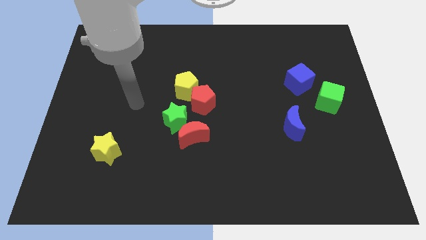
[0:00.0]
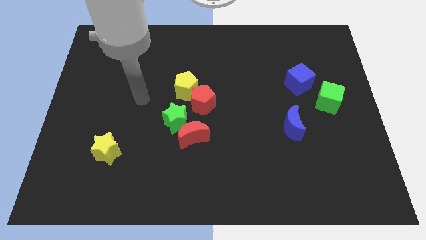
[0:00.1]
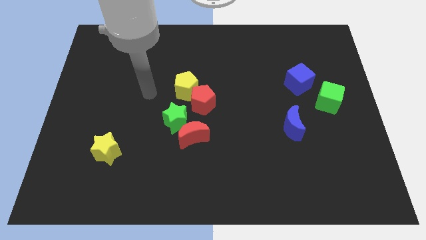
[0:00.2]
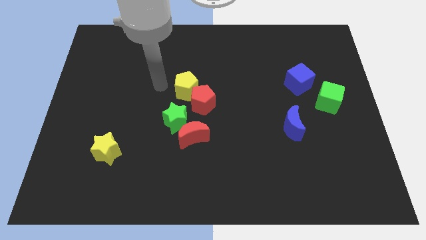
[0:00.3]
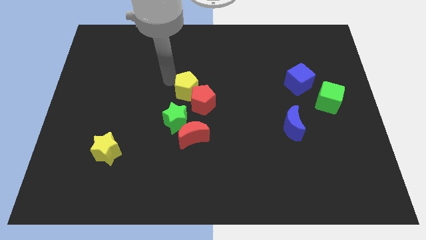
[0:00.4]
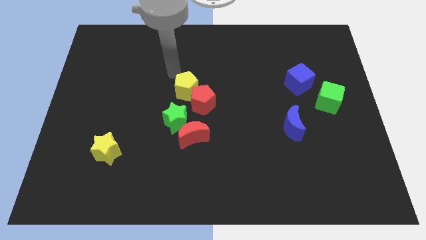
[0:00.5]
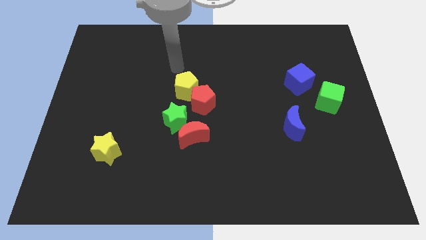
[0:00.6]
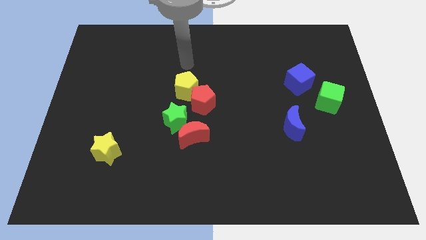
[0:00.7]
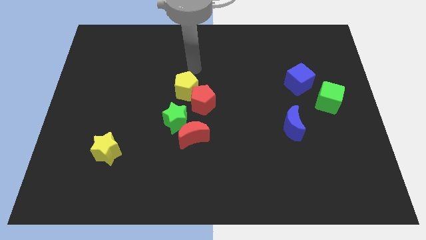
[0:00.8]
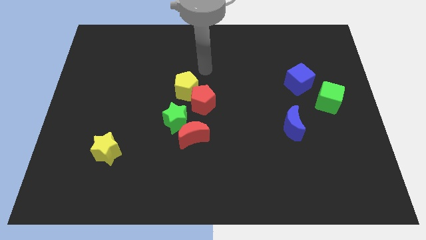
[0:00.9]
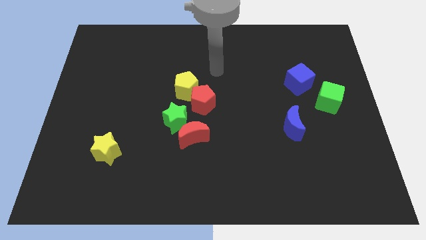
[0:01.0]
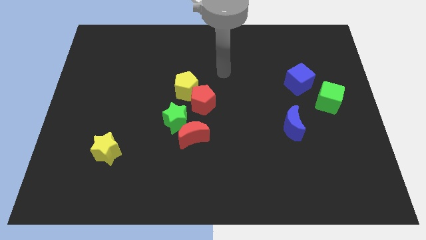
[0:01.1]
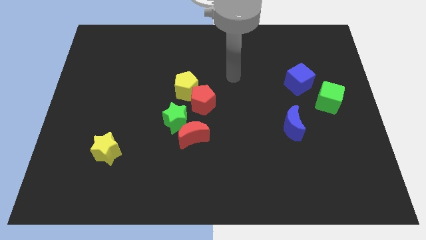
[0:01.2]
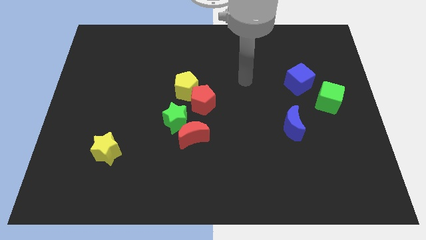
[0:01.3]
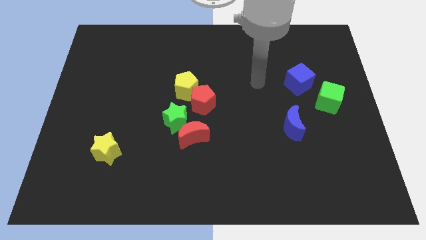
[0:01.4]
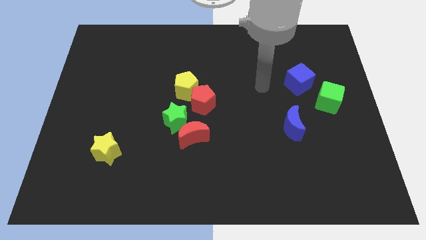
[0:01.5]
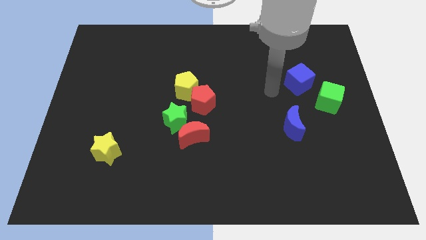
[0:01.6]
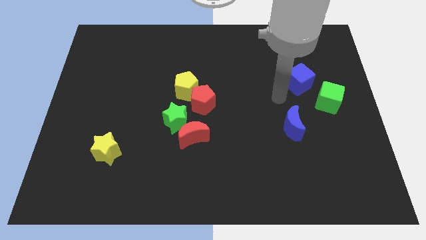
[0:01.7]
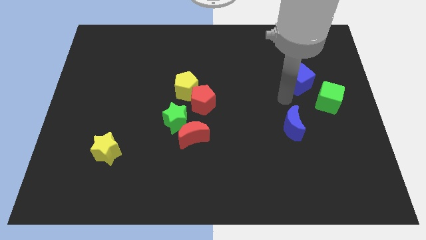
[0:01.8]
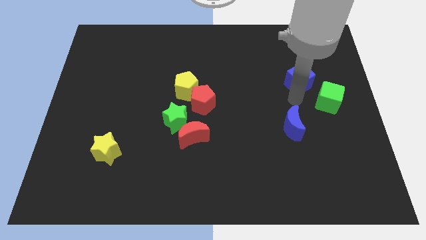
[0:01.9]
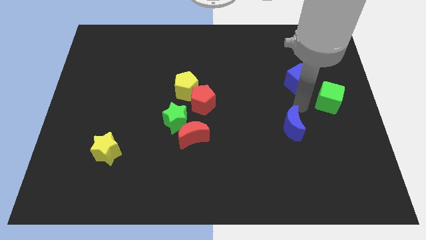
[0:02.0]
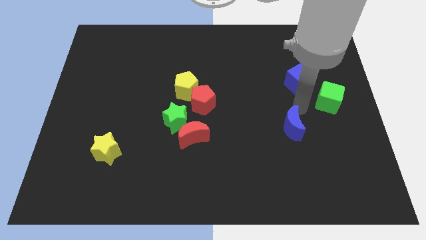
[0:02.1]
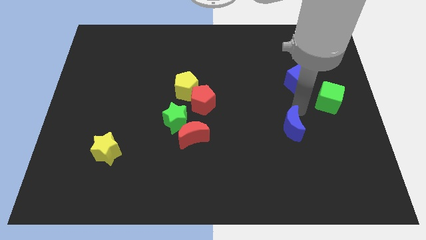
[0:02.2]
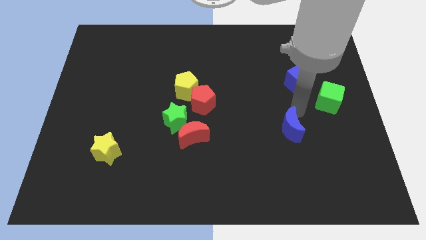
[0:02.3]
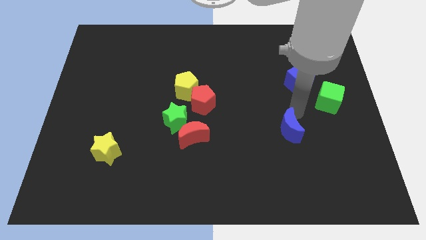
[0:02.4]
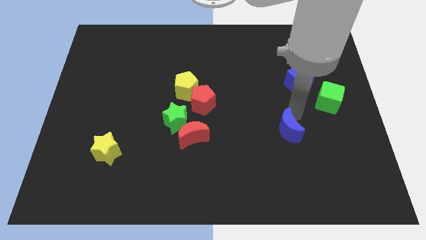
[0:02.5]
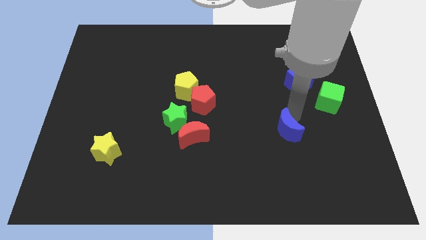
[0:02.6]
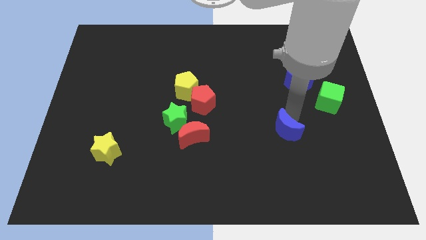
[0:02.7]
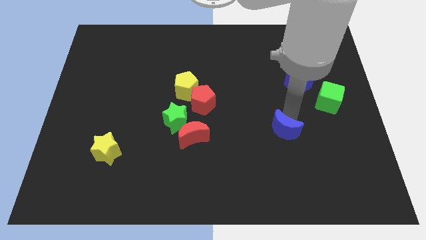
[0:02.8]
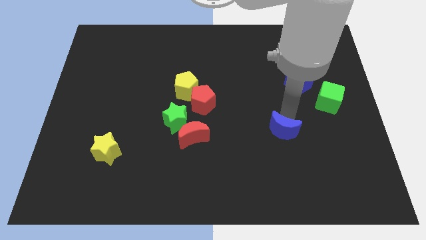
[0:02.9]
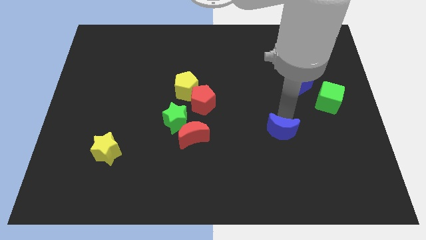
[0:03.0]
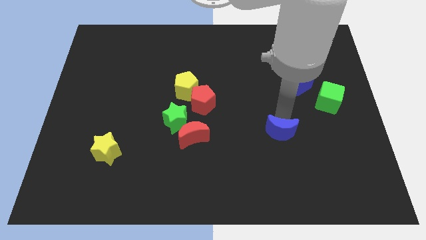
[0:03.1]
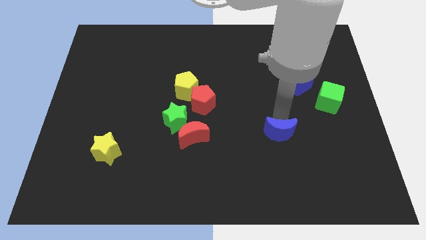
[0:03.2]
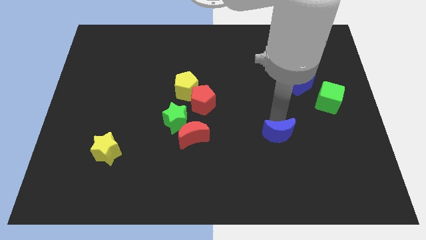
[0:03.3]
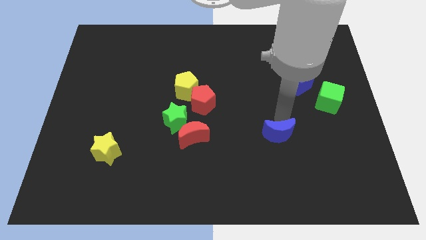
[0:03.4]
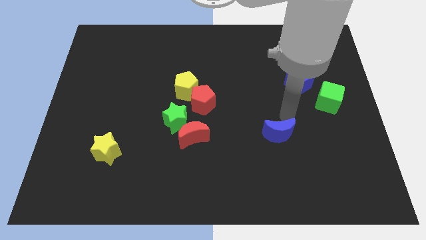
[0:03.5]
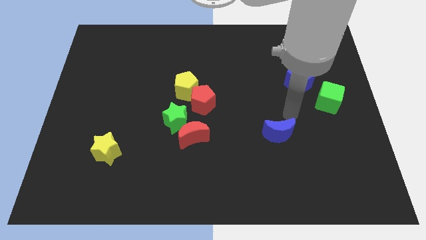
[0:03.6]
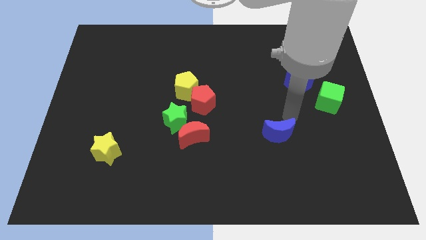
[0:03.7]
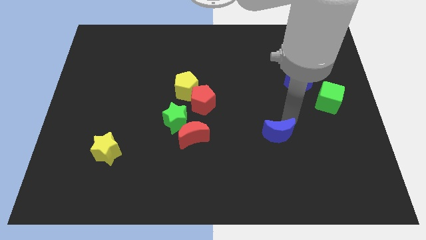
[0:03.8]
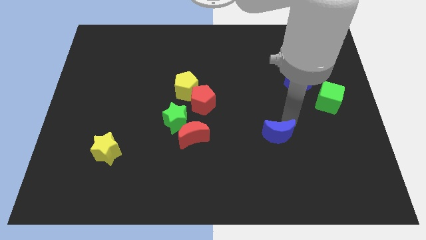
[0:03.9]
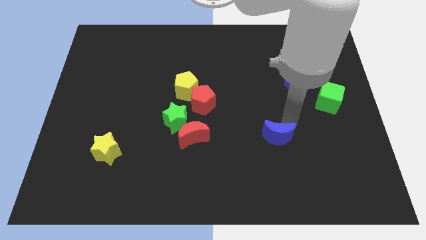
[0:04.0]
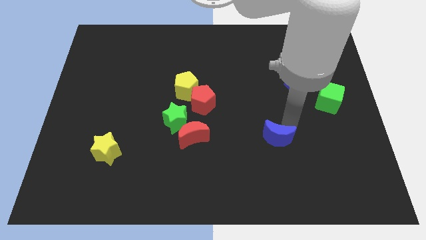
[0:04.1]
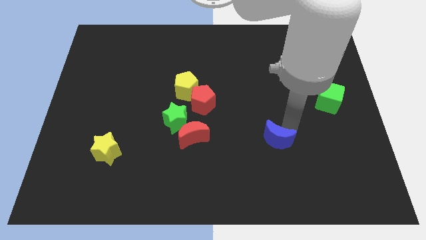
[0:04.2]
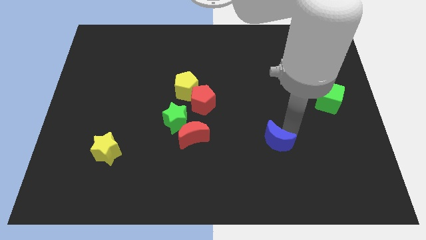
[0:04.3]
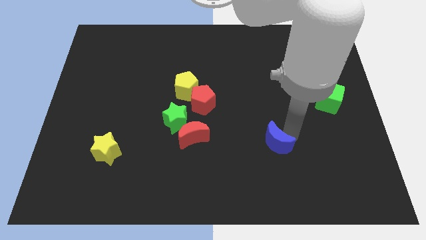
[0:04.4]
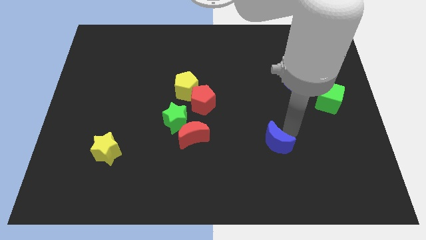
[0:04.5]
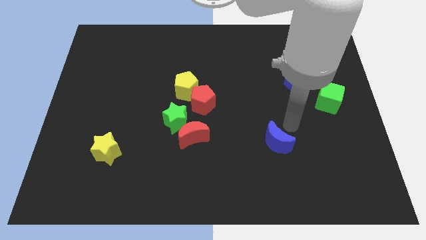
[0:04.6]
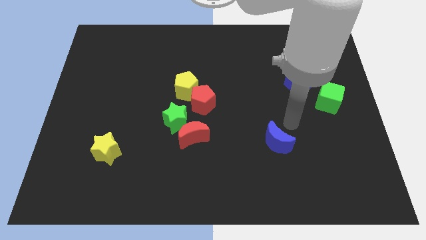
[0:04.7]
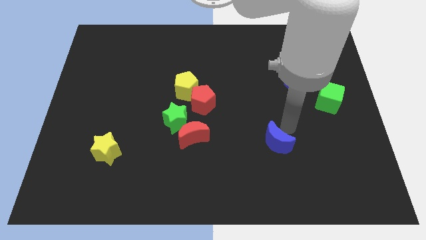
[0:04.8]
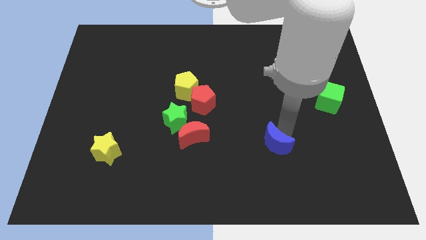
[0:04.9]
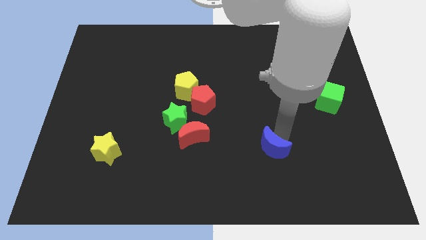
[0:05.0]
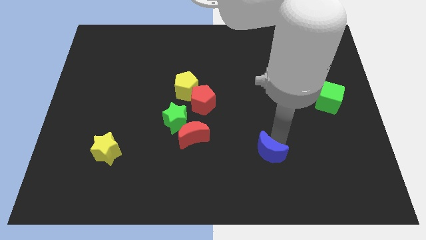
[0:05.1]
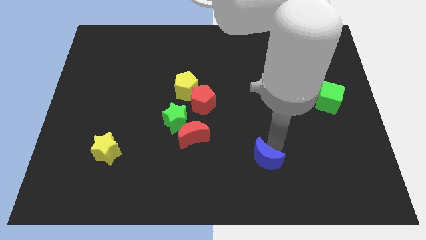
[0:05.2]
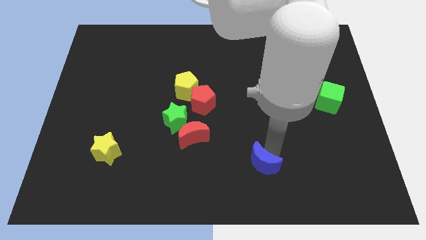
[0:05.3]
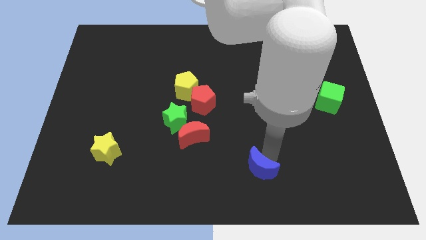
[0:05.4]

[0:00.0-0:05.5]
push the blue moon to the bottom

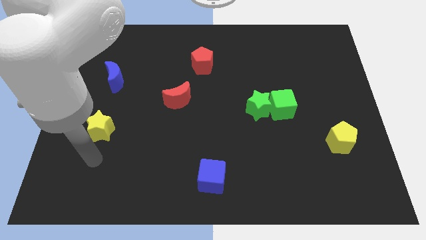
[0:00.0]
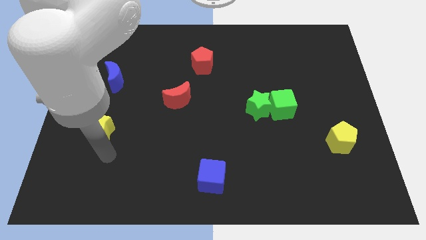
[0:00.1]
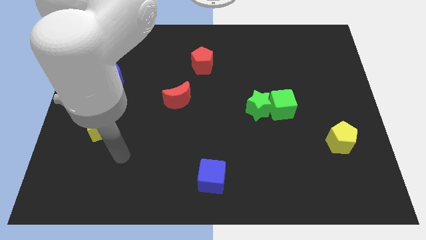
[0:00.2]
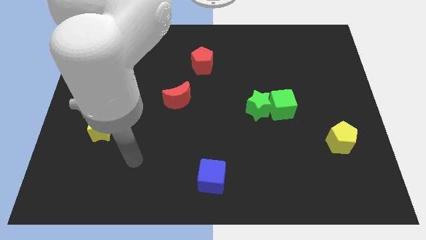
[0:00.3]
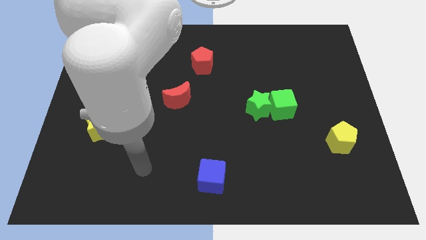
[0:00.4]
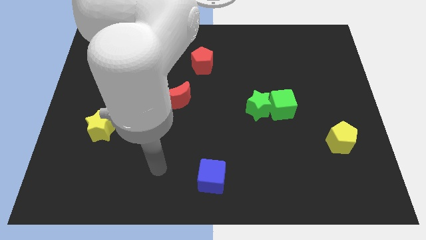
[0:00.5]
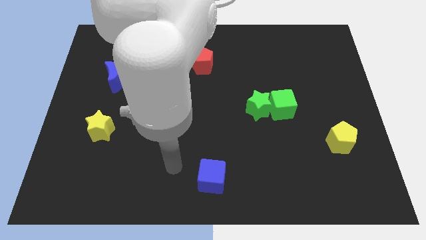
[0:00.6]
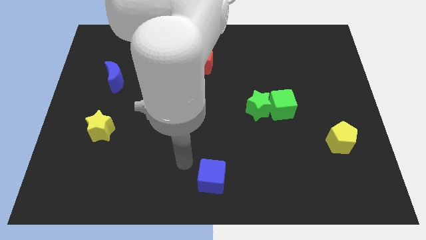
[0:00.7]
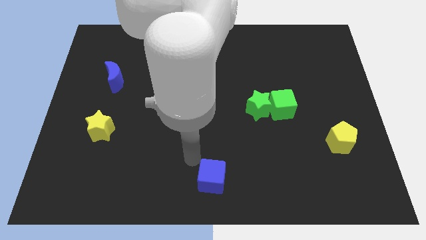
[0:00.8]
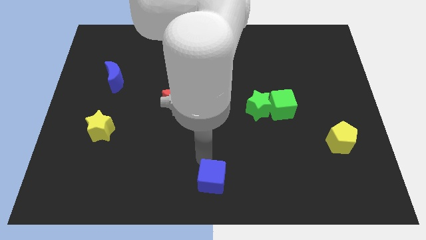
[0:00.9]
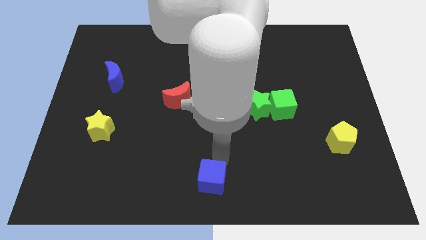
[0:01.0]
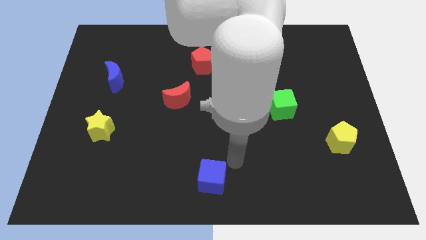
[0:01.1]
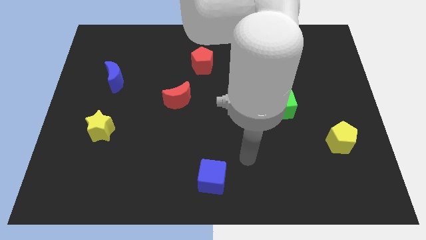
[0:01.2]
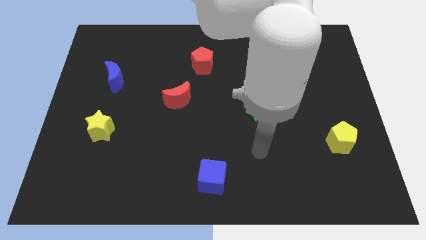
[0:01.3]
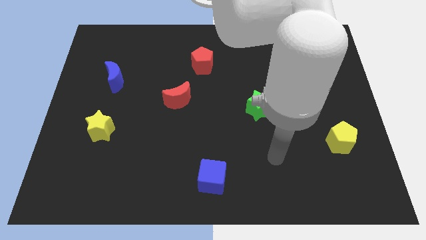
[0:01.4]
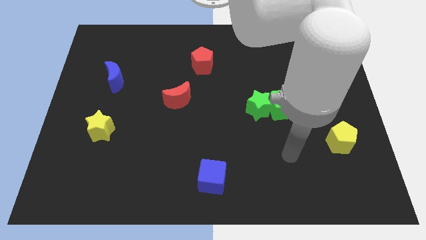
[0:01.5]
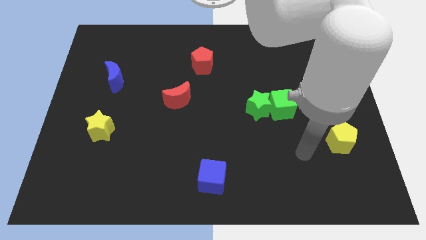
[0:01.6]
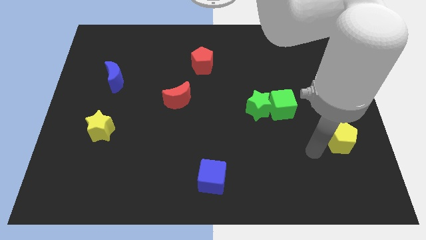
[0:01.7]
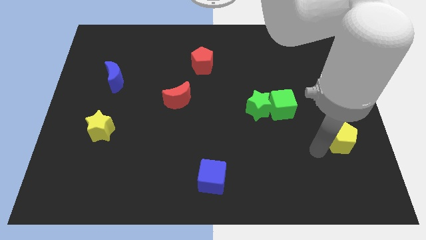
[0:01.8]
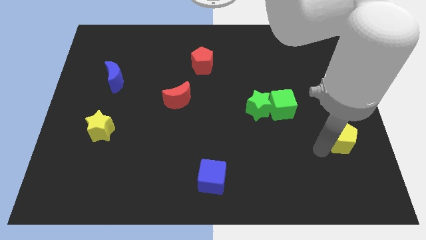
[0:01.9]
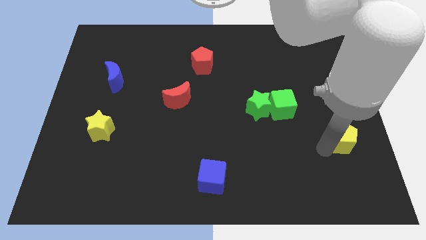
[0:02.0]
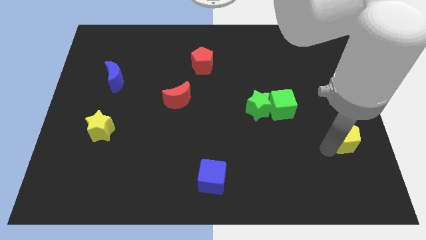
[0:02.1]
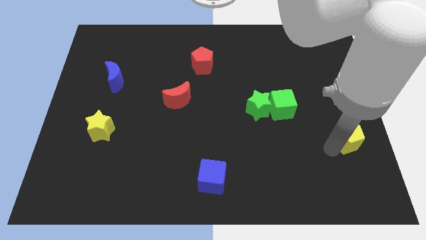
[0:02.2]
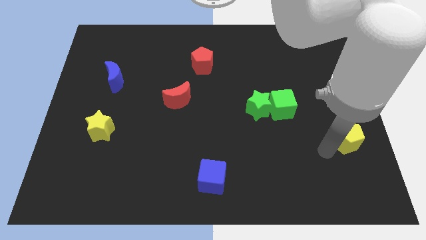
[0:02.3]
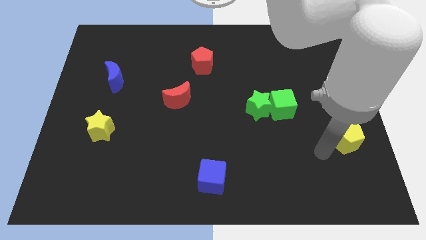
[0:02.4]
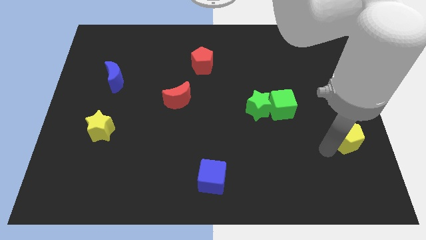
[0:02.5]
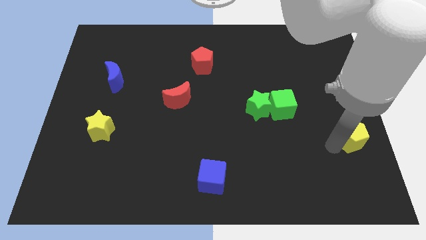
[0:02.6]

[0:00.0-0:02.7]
push the yellow pentagon to the right side of the board
